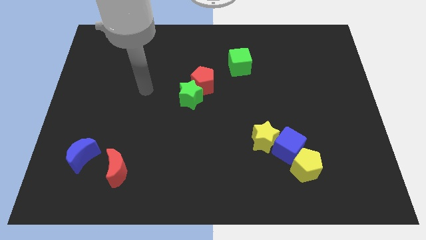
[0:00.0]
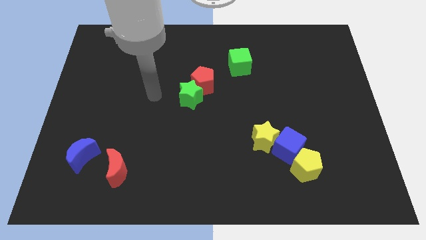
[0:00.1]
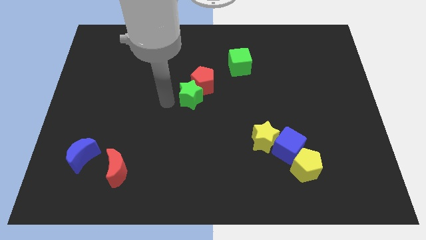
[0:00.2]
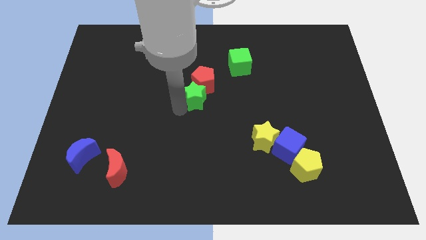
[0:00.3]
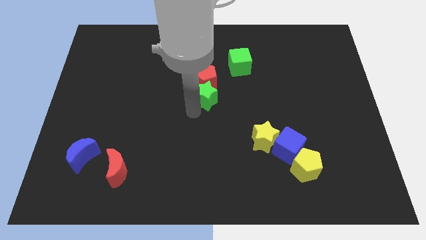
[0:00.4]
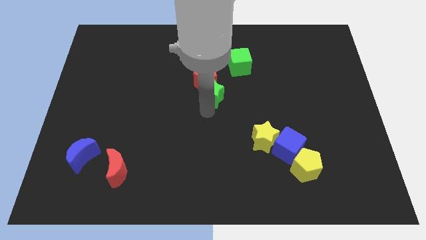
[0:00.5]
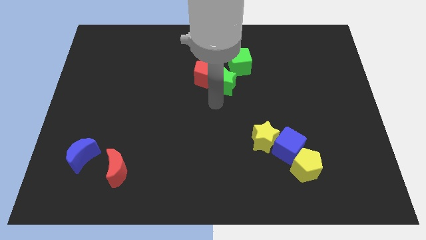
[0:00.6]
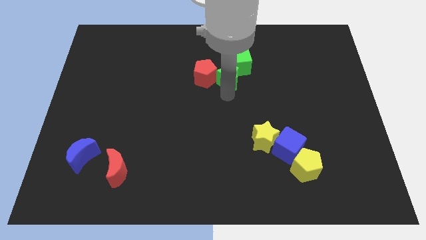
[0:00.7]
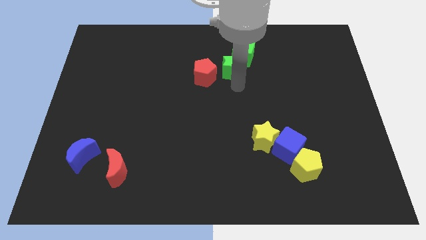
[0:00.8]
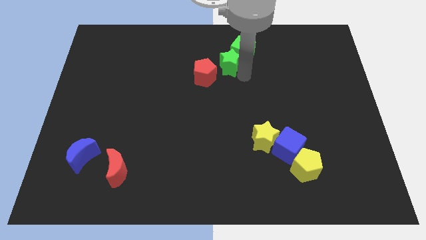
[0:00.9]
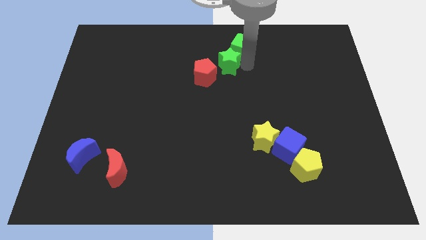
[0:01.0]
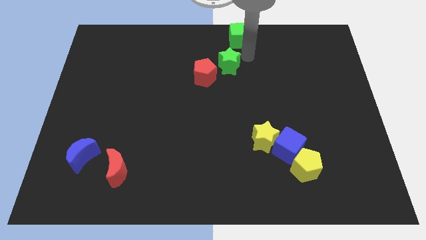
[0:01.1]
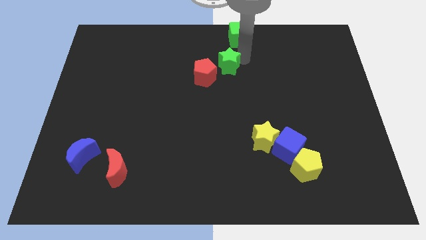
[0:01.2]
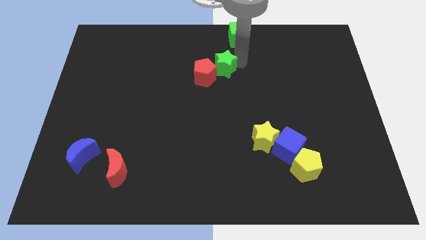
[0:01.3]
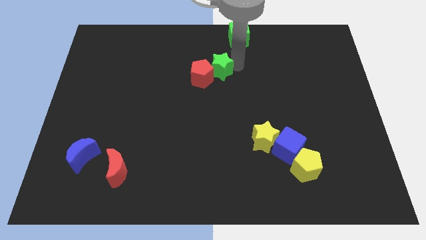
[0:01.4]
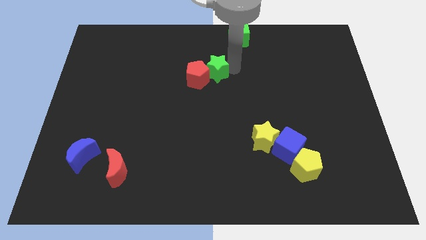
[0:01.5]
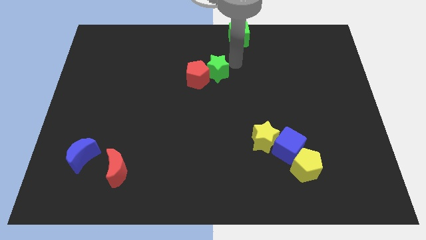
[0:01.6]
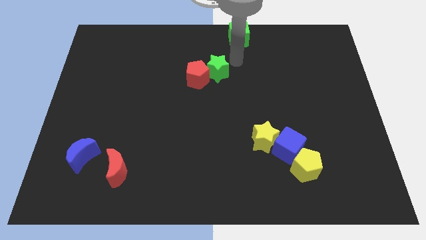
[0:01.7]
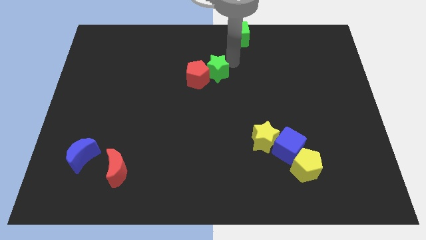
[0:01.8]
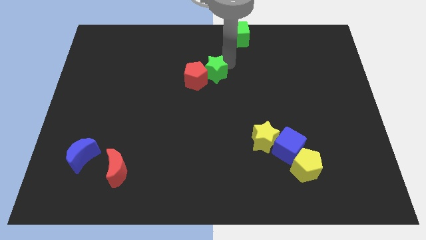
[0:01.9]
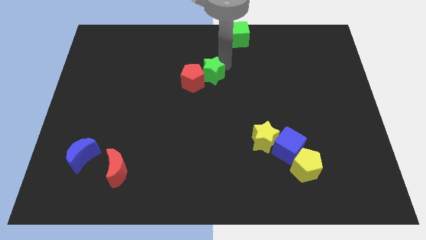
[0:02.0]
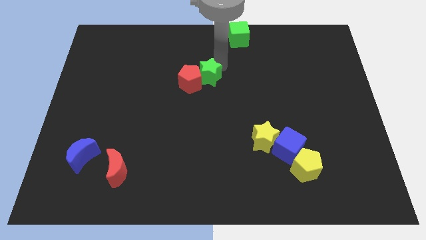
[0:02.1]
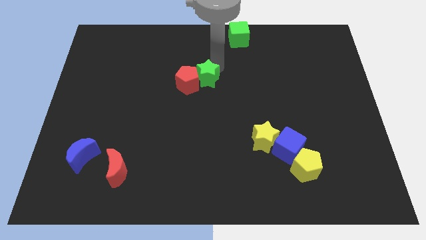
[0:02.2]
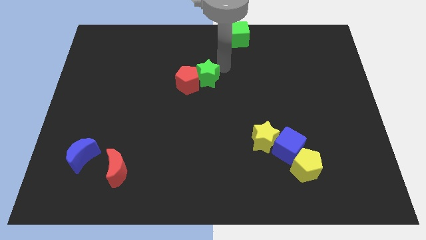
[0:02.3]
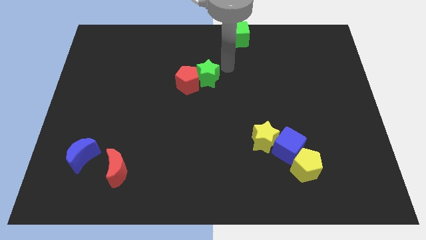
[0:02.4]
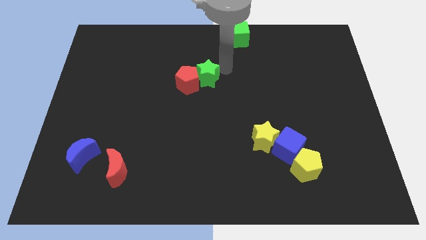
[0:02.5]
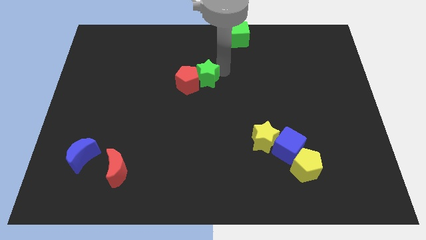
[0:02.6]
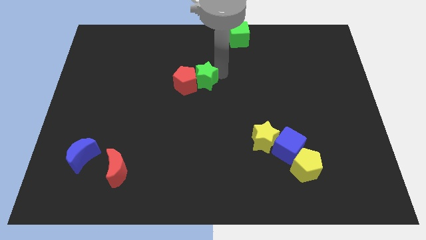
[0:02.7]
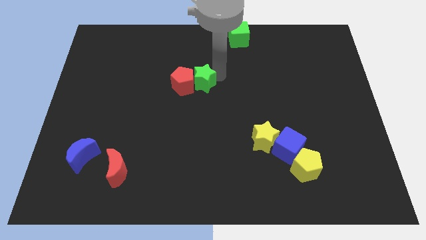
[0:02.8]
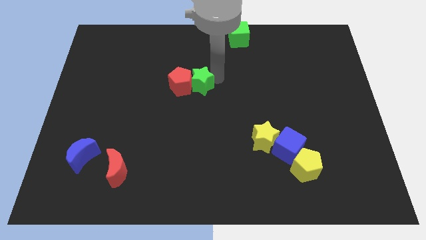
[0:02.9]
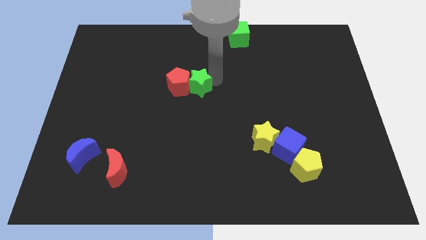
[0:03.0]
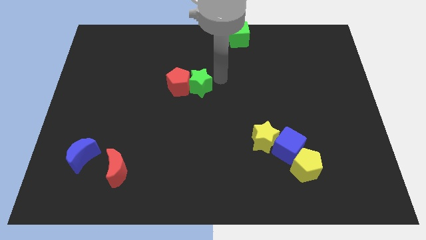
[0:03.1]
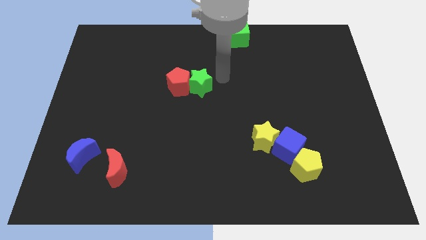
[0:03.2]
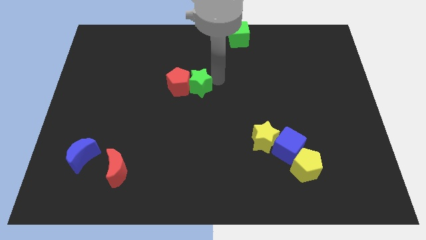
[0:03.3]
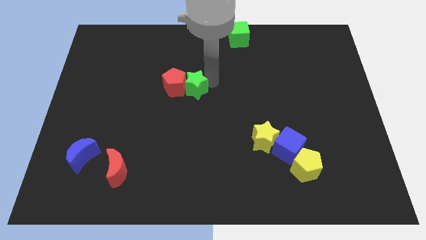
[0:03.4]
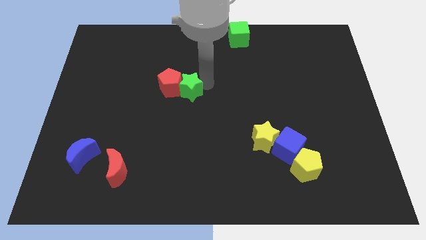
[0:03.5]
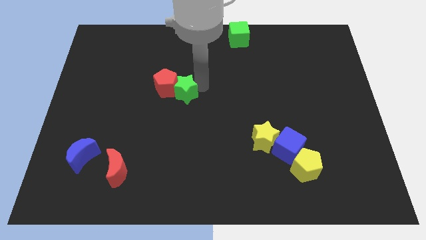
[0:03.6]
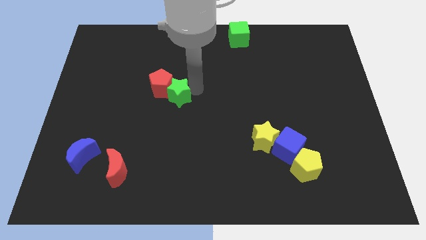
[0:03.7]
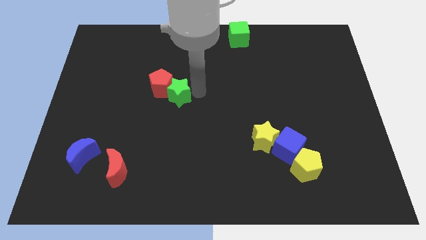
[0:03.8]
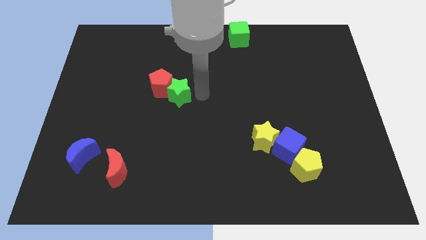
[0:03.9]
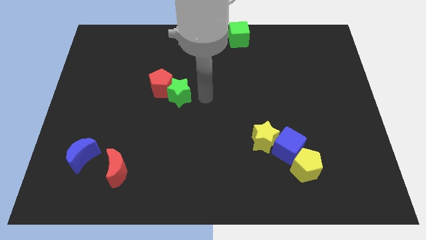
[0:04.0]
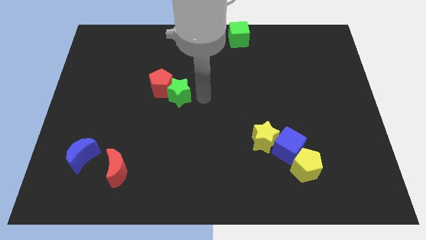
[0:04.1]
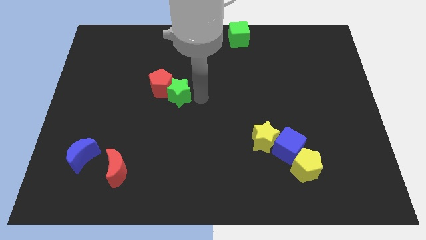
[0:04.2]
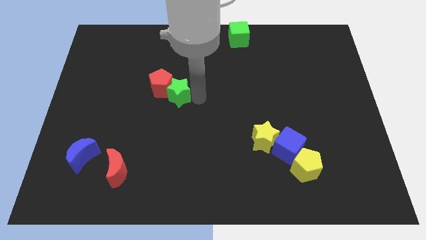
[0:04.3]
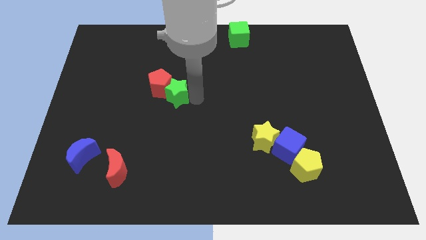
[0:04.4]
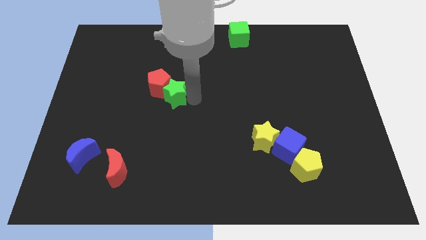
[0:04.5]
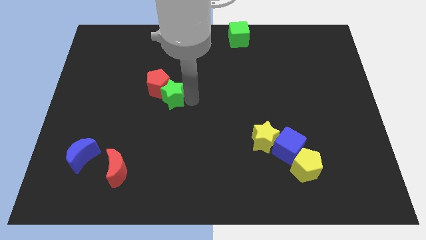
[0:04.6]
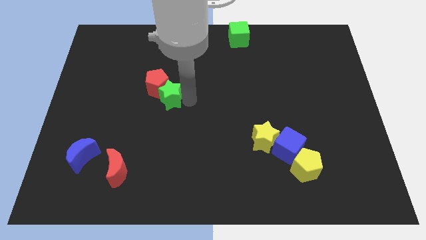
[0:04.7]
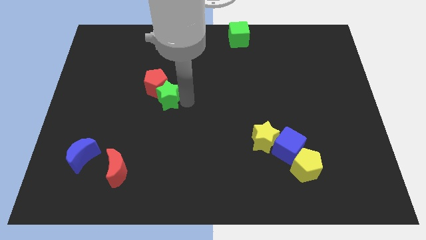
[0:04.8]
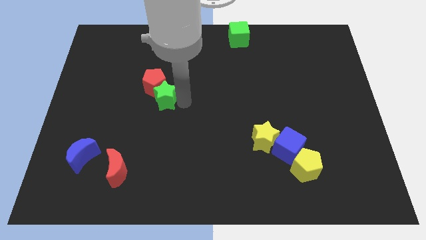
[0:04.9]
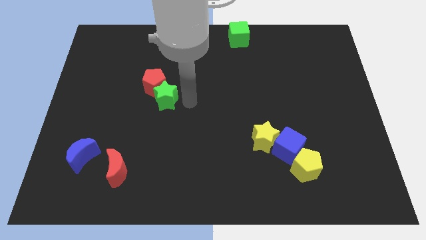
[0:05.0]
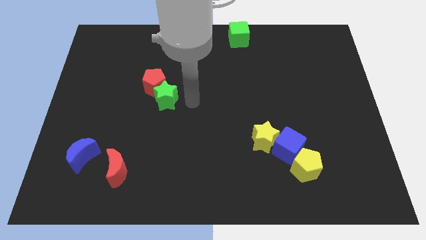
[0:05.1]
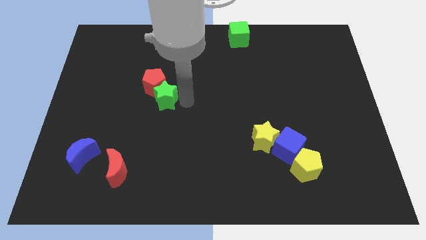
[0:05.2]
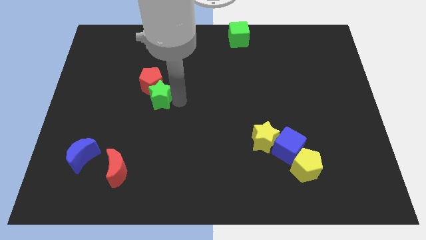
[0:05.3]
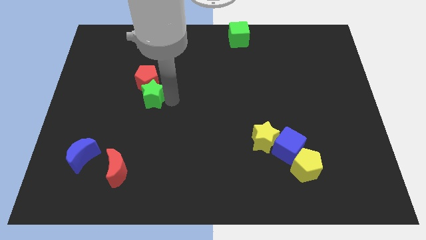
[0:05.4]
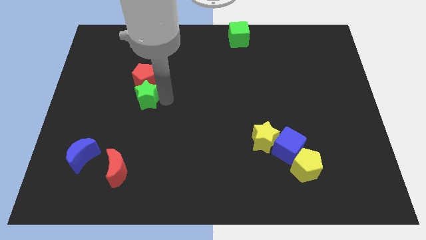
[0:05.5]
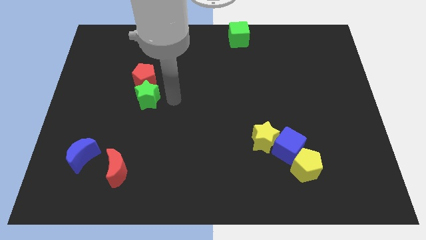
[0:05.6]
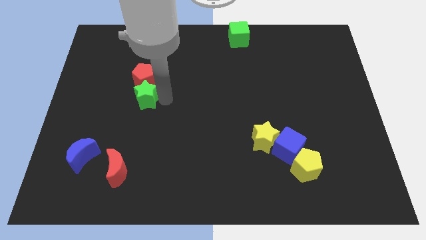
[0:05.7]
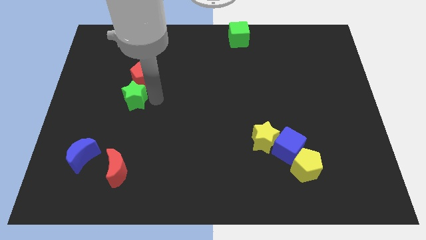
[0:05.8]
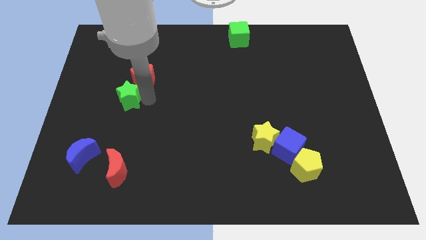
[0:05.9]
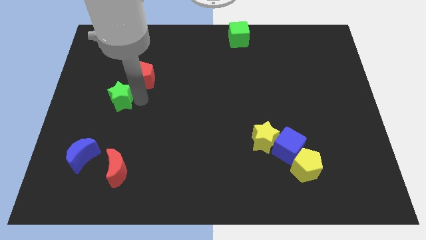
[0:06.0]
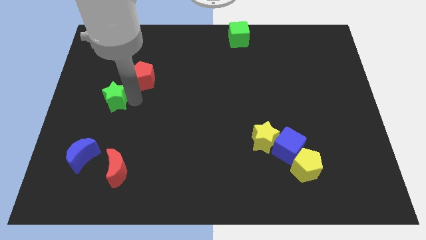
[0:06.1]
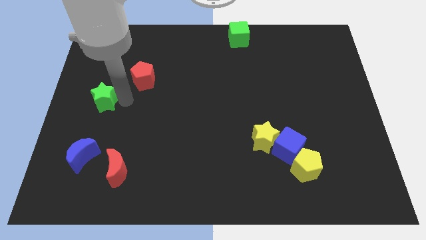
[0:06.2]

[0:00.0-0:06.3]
push the green star to the center left

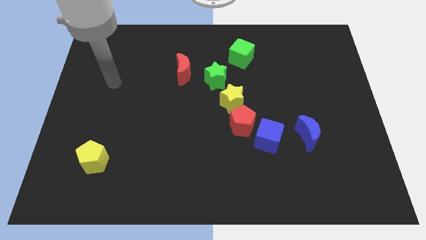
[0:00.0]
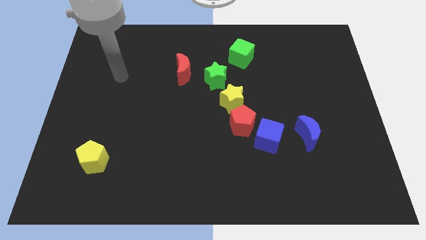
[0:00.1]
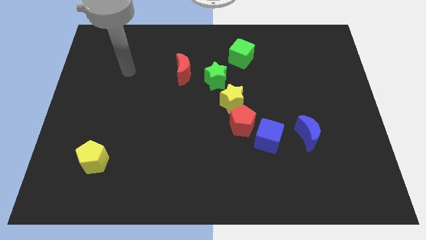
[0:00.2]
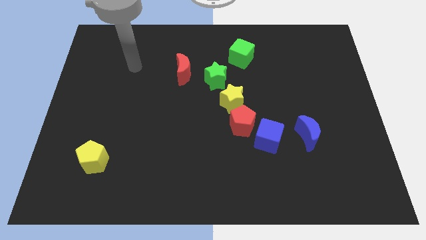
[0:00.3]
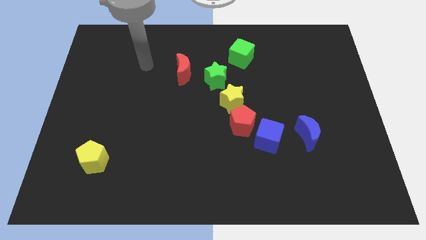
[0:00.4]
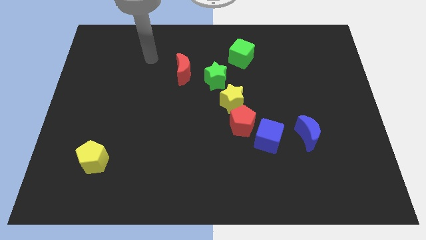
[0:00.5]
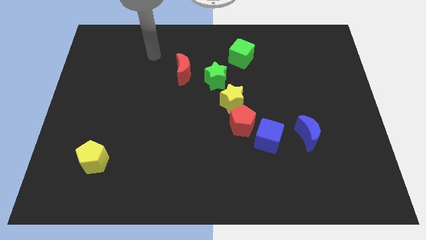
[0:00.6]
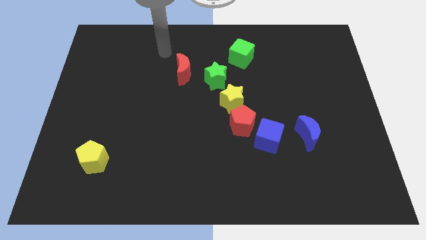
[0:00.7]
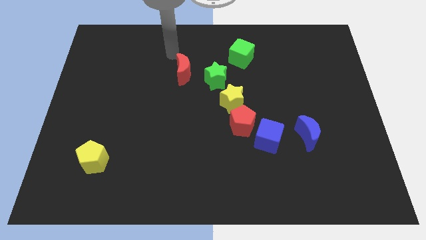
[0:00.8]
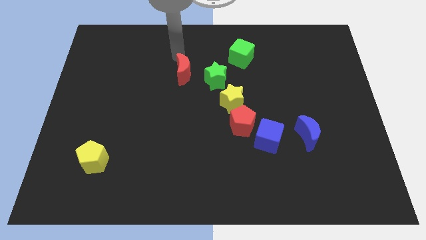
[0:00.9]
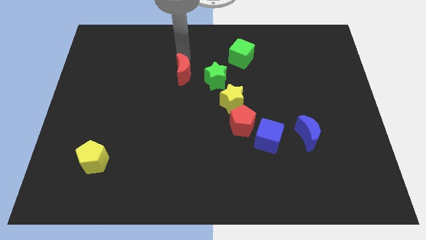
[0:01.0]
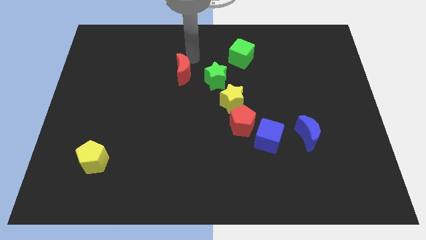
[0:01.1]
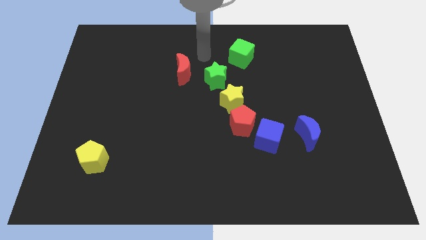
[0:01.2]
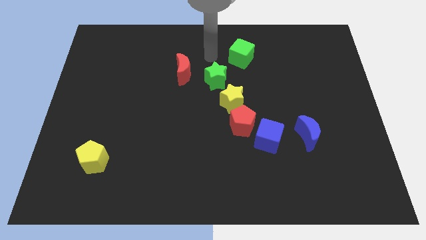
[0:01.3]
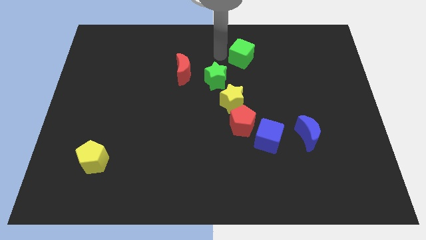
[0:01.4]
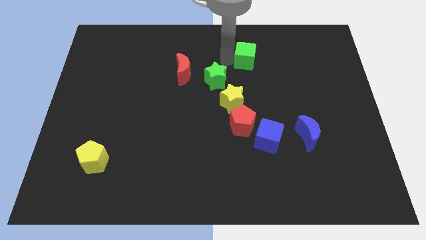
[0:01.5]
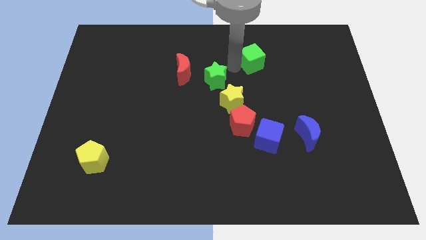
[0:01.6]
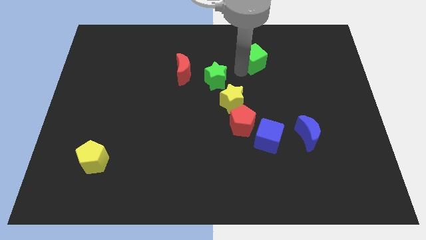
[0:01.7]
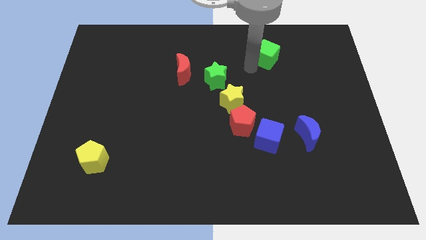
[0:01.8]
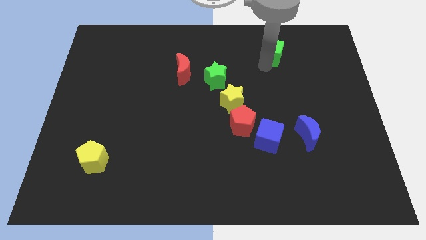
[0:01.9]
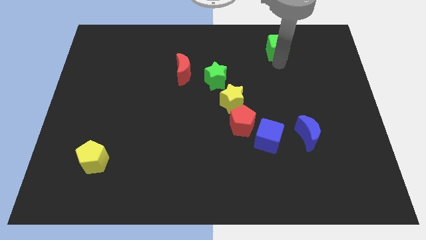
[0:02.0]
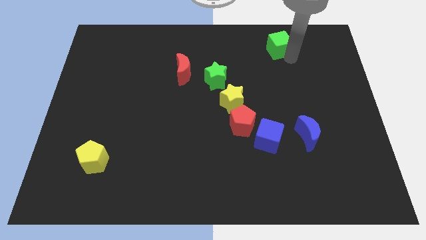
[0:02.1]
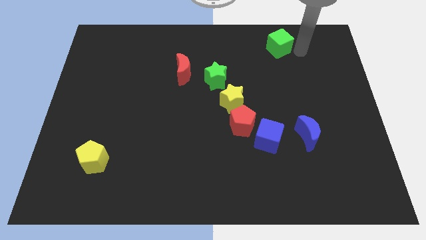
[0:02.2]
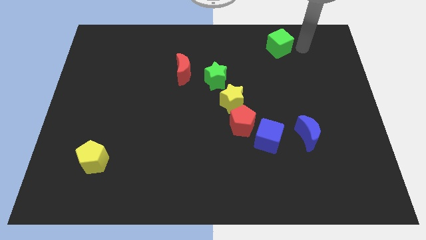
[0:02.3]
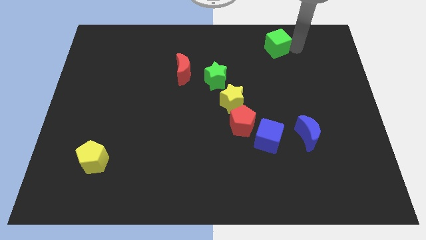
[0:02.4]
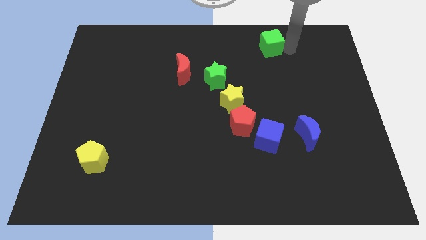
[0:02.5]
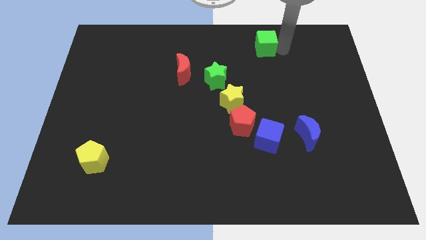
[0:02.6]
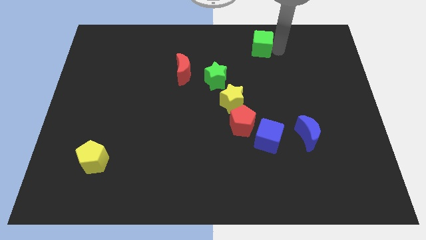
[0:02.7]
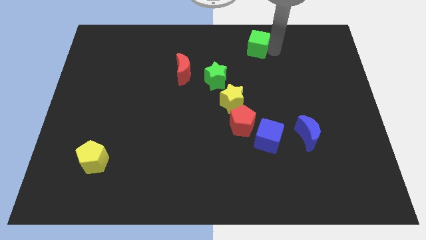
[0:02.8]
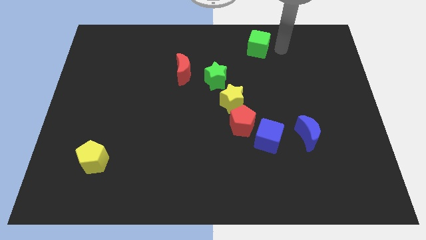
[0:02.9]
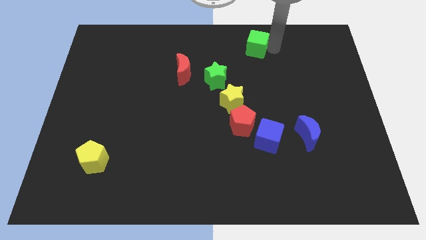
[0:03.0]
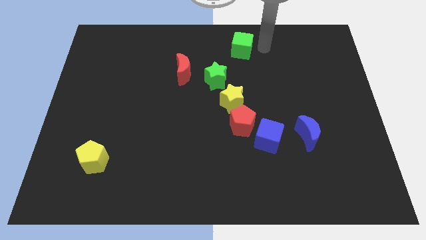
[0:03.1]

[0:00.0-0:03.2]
put the green cube to the top
